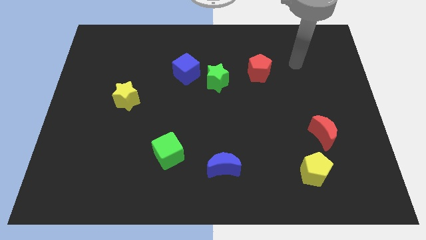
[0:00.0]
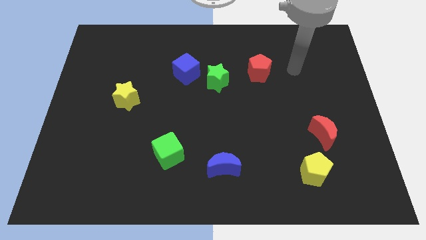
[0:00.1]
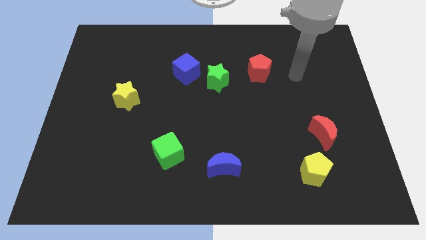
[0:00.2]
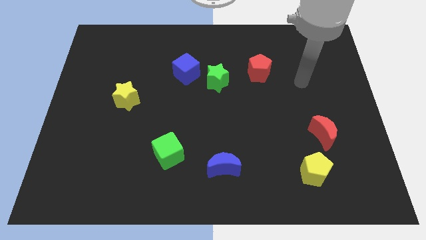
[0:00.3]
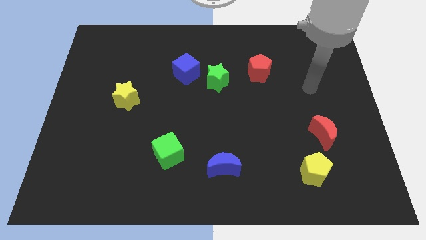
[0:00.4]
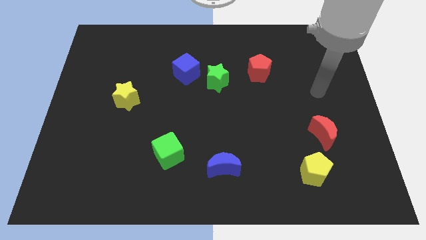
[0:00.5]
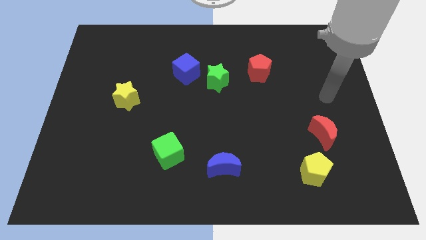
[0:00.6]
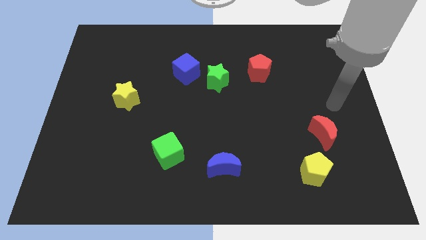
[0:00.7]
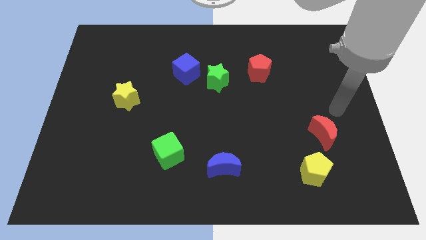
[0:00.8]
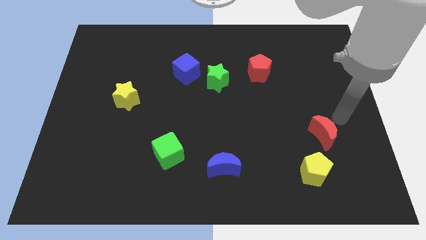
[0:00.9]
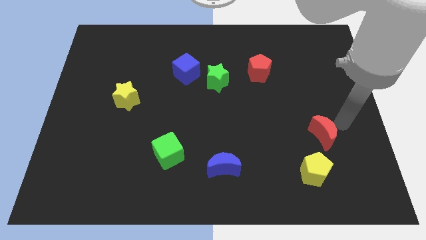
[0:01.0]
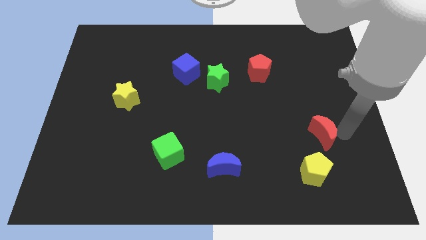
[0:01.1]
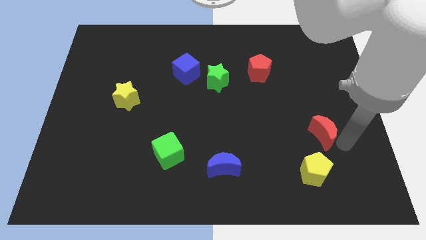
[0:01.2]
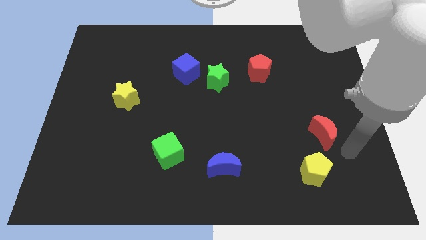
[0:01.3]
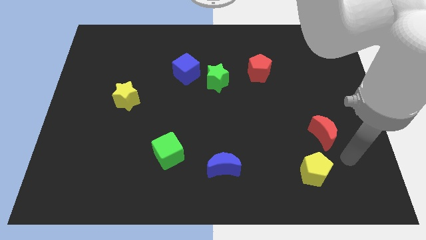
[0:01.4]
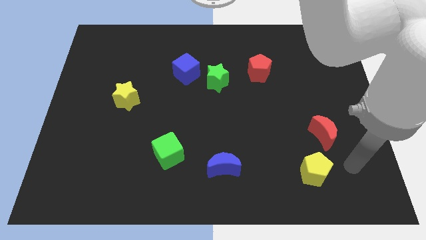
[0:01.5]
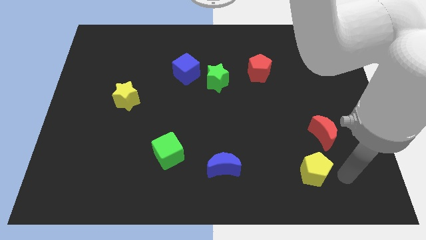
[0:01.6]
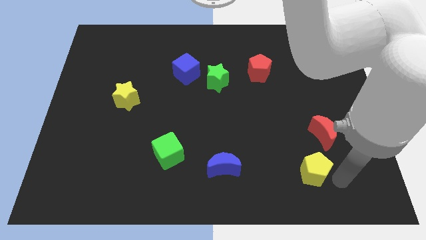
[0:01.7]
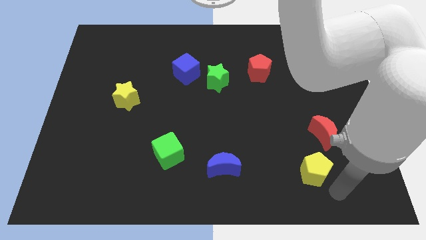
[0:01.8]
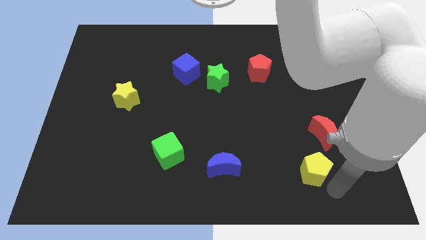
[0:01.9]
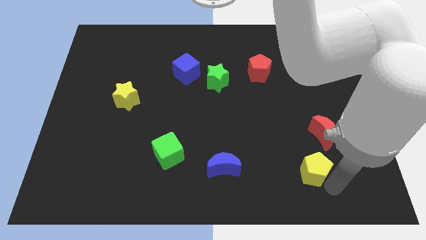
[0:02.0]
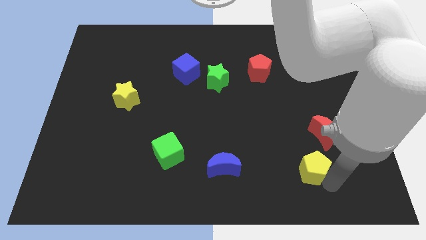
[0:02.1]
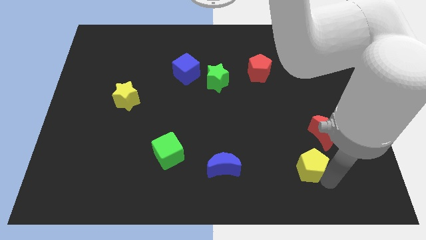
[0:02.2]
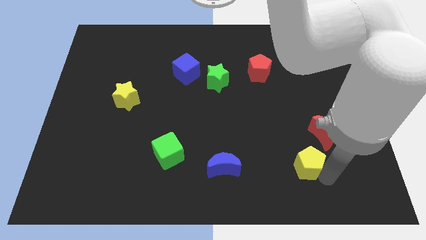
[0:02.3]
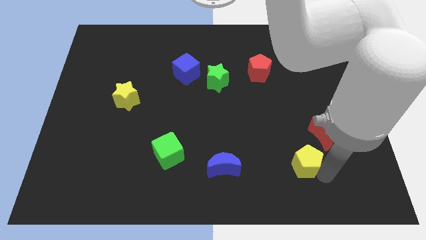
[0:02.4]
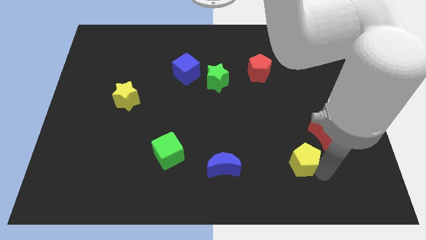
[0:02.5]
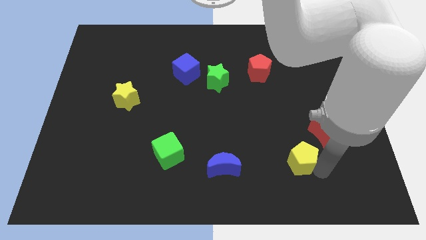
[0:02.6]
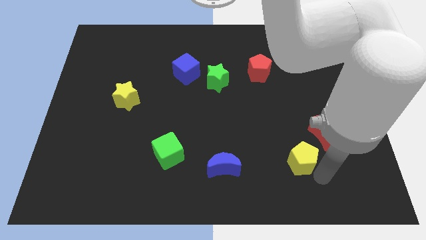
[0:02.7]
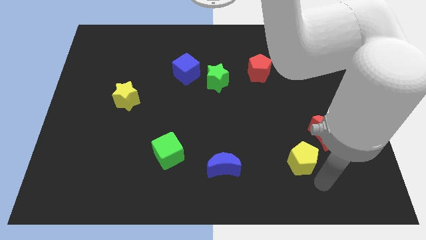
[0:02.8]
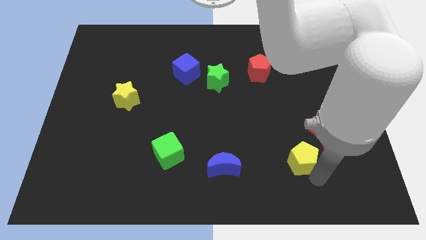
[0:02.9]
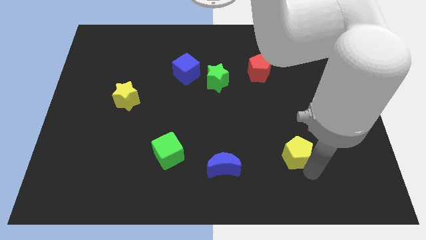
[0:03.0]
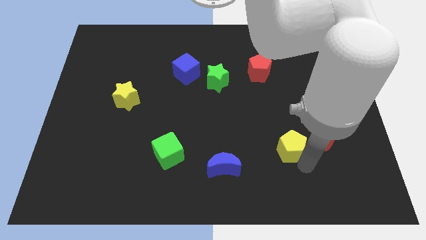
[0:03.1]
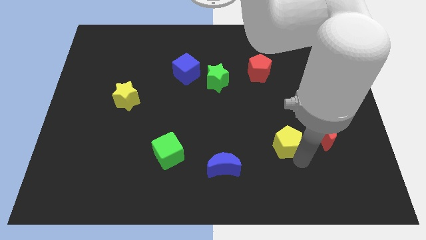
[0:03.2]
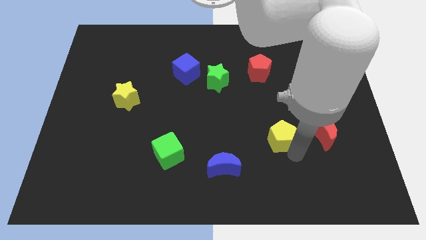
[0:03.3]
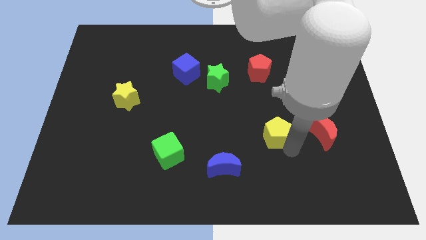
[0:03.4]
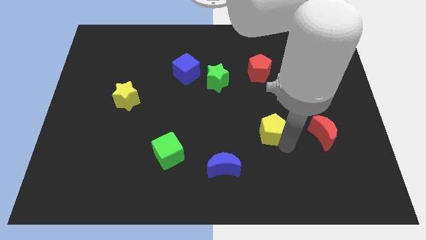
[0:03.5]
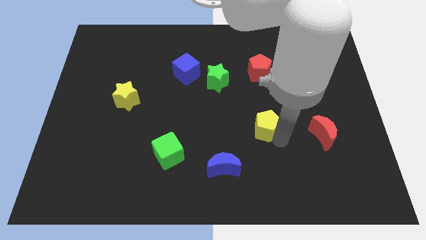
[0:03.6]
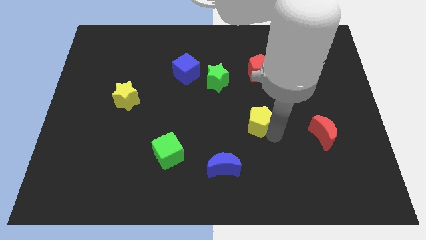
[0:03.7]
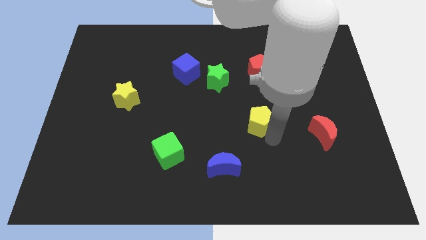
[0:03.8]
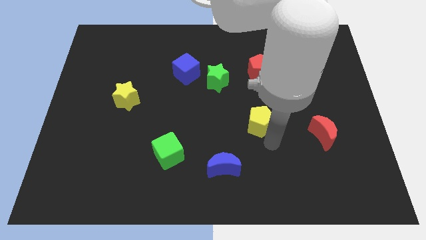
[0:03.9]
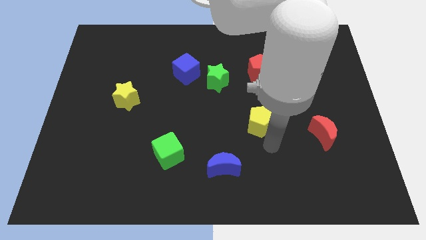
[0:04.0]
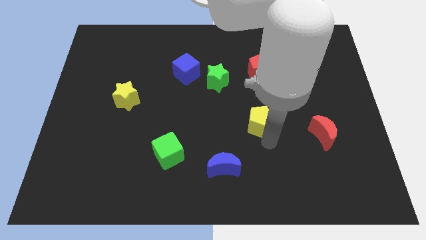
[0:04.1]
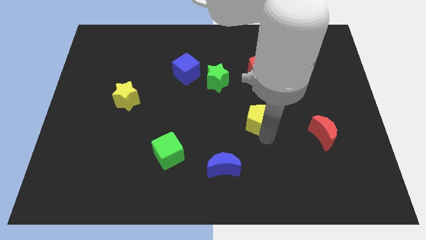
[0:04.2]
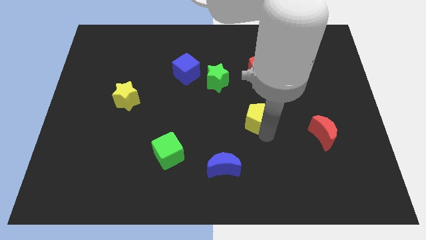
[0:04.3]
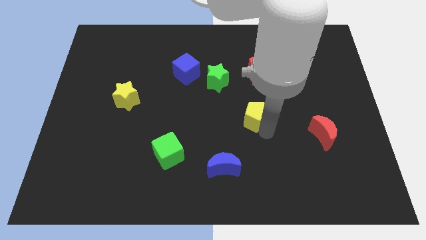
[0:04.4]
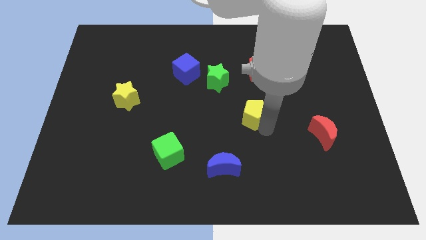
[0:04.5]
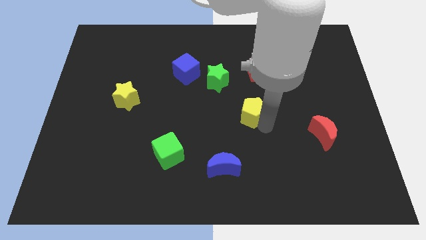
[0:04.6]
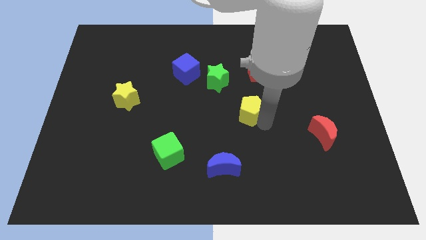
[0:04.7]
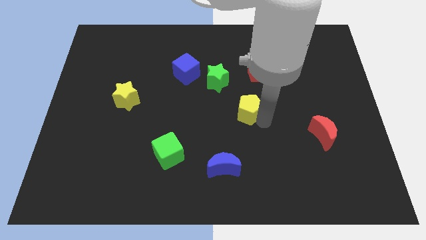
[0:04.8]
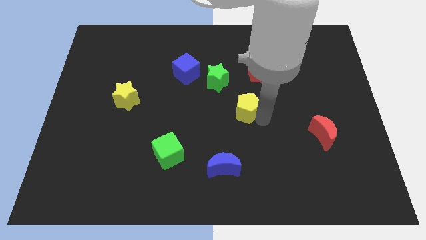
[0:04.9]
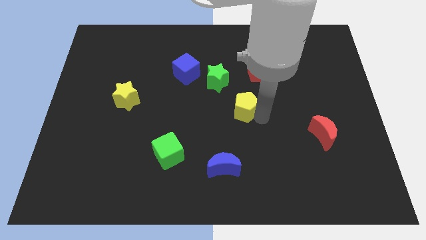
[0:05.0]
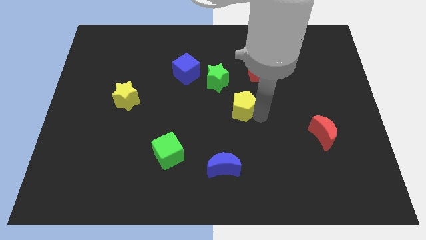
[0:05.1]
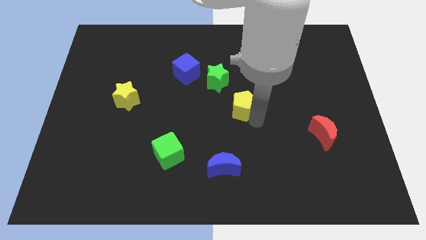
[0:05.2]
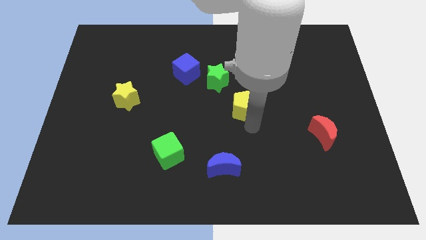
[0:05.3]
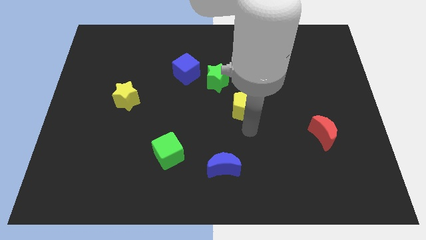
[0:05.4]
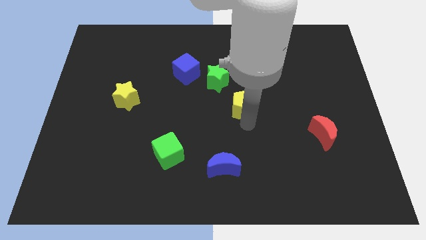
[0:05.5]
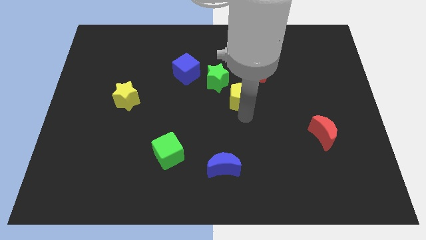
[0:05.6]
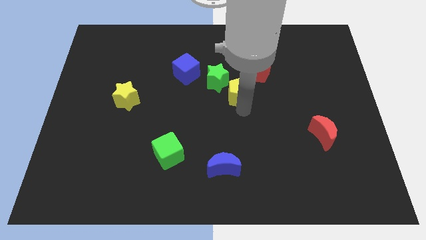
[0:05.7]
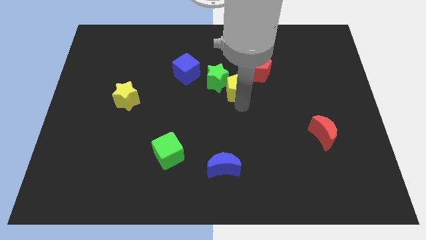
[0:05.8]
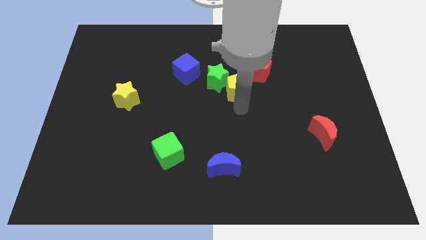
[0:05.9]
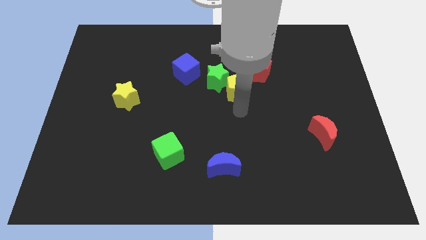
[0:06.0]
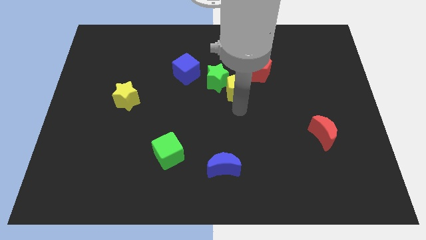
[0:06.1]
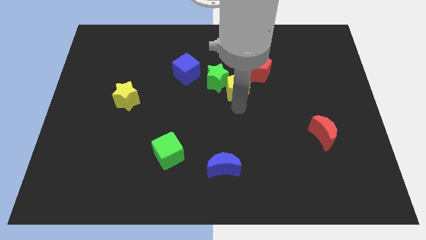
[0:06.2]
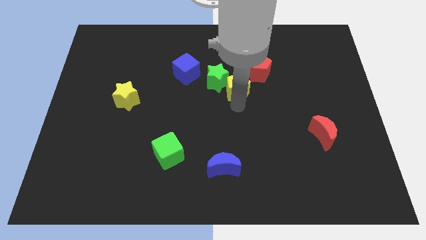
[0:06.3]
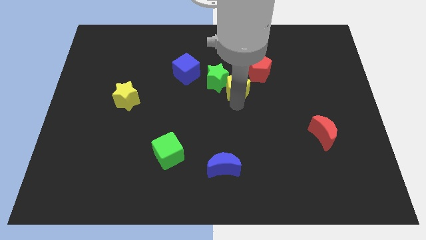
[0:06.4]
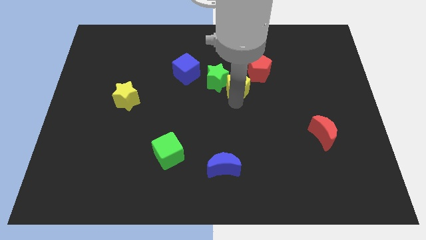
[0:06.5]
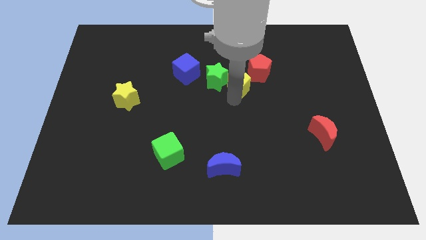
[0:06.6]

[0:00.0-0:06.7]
slide the yellow pentagon to the left of the red pentagon
